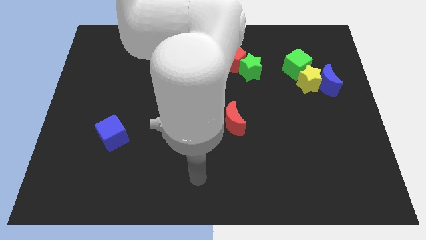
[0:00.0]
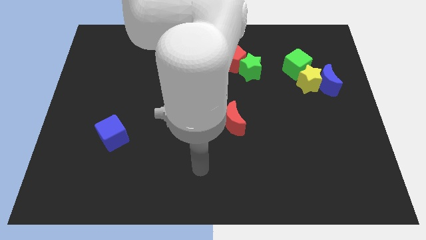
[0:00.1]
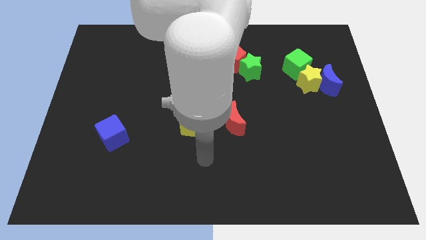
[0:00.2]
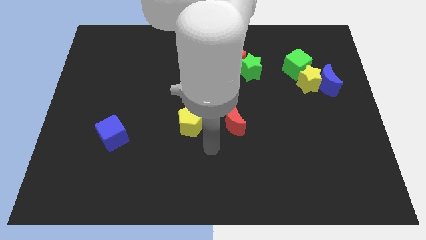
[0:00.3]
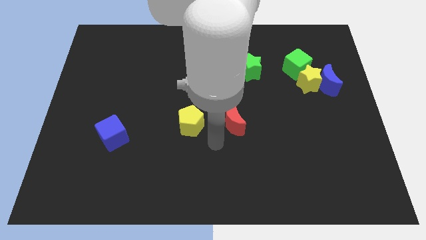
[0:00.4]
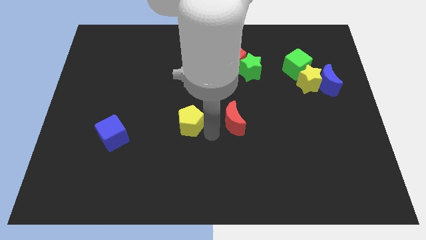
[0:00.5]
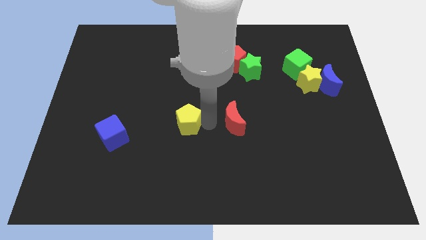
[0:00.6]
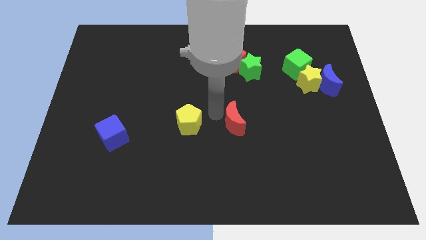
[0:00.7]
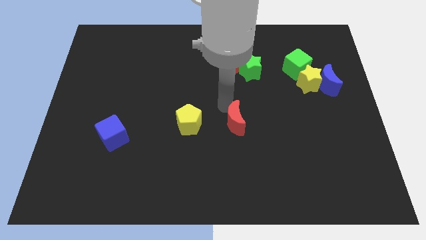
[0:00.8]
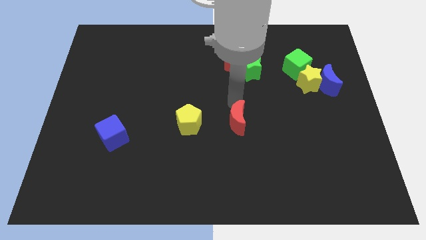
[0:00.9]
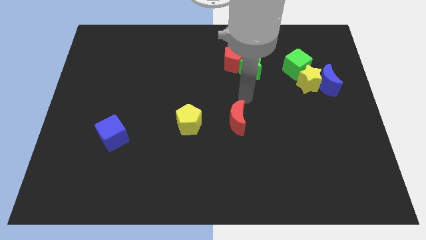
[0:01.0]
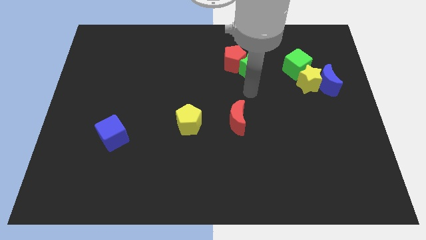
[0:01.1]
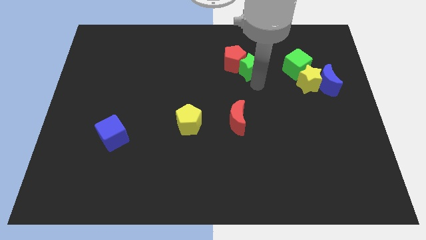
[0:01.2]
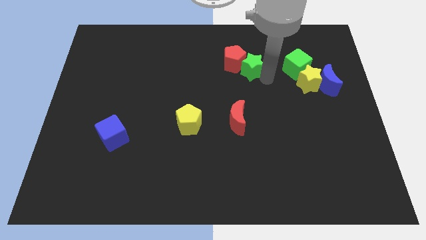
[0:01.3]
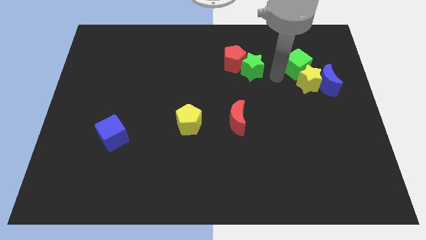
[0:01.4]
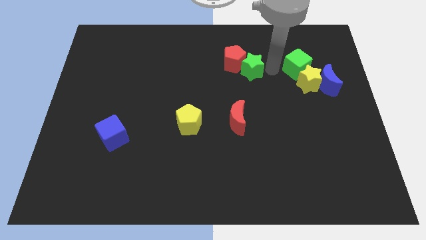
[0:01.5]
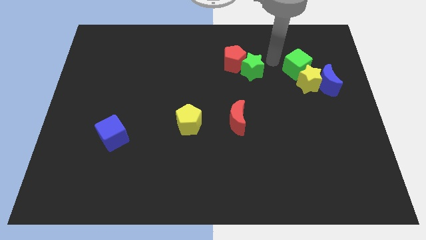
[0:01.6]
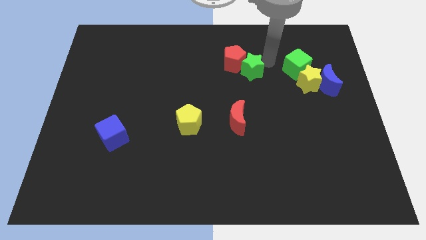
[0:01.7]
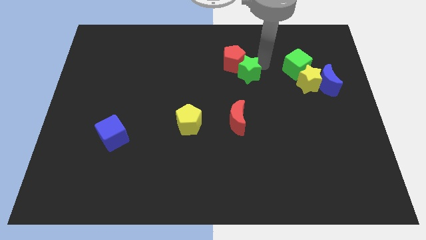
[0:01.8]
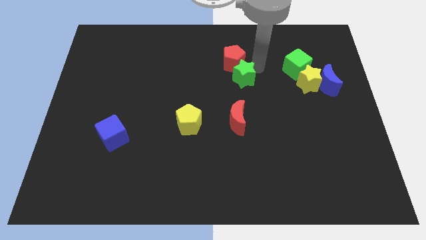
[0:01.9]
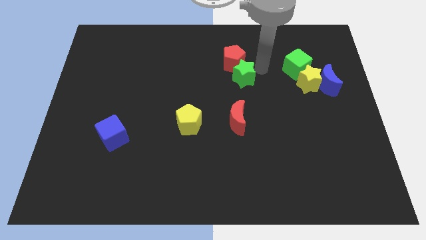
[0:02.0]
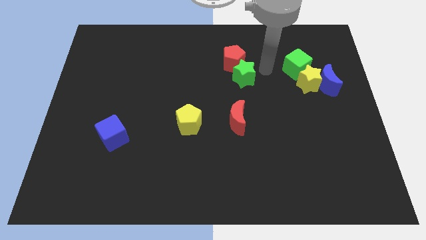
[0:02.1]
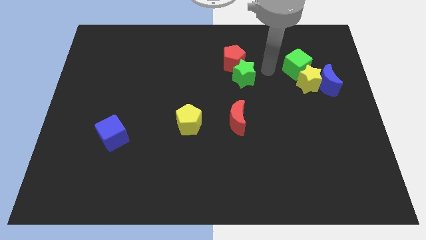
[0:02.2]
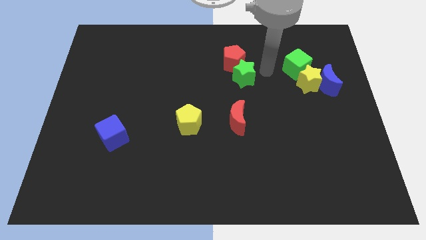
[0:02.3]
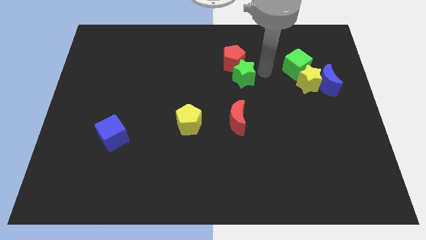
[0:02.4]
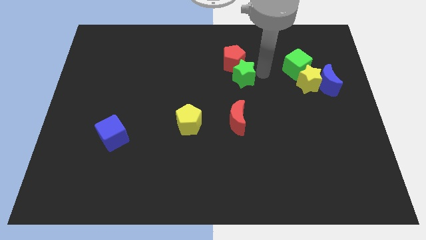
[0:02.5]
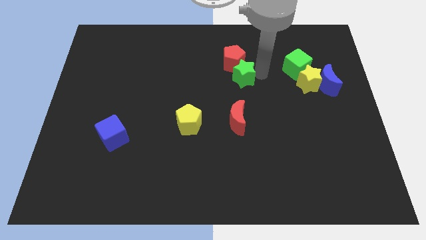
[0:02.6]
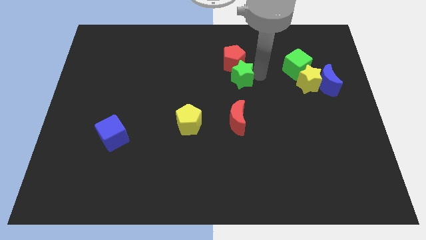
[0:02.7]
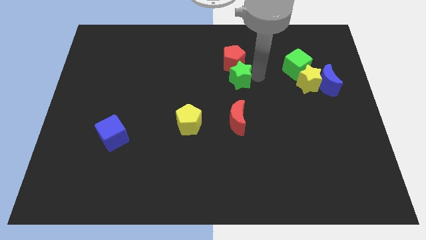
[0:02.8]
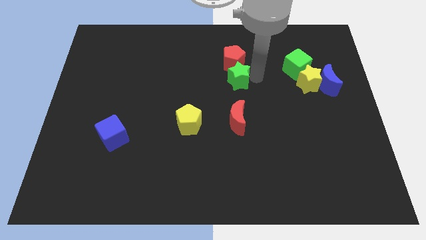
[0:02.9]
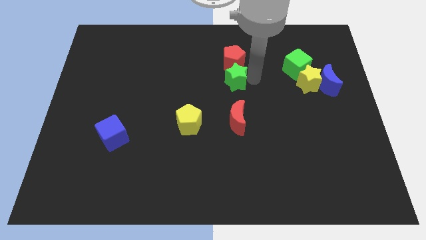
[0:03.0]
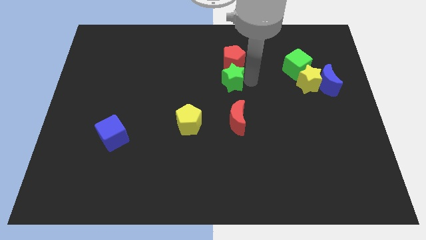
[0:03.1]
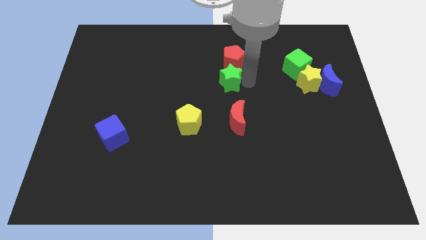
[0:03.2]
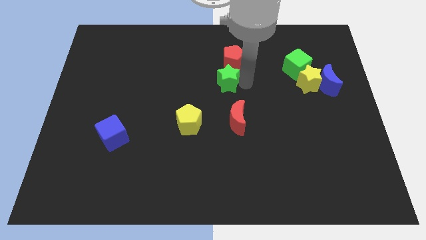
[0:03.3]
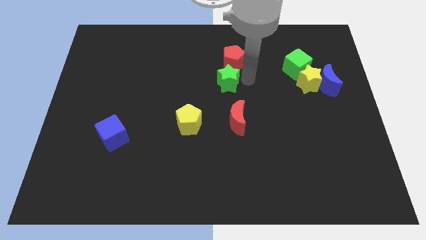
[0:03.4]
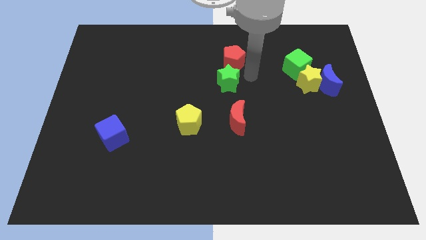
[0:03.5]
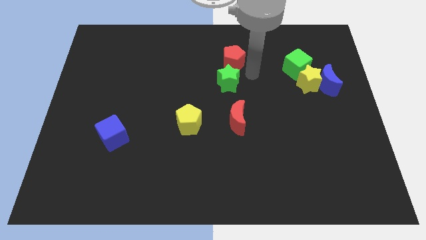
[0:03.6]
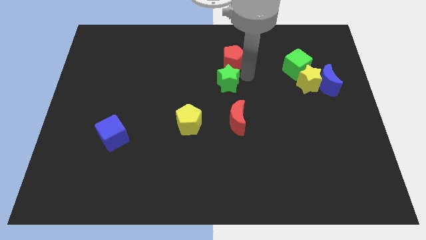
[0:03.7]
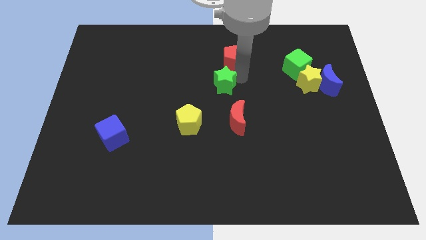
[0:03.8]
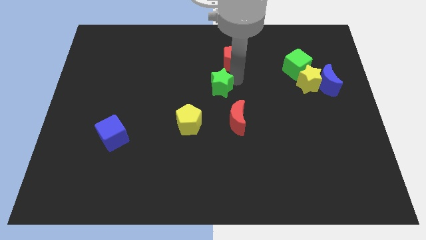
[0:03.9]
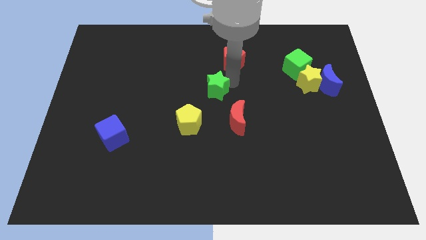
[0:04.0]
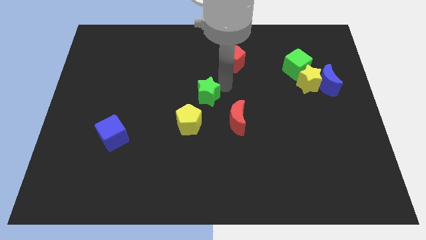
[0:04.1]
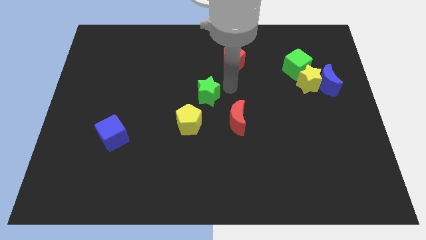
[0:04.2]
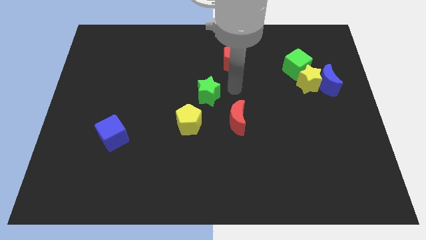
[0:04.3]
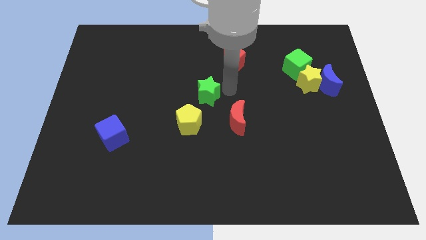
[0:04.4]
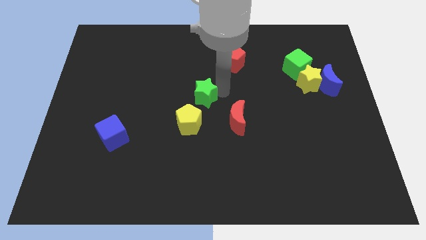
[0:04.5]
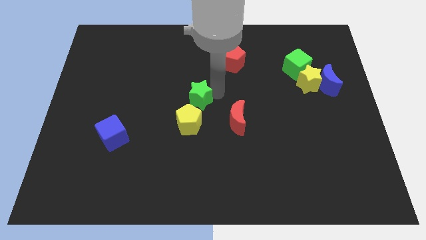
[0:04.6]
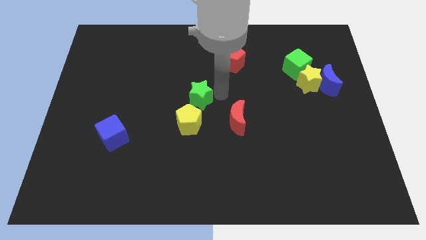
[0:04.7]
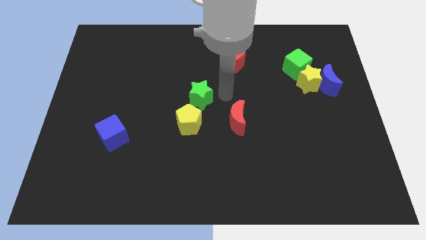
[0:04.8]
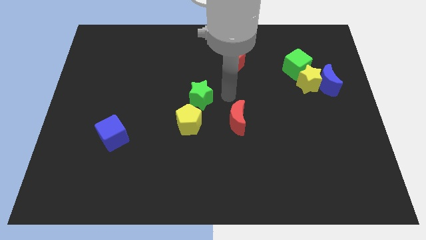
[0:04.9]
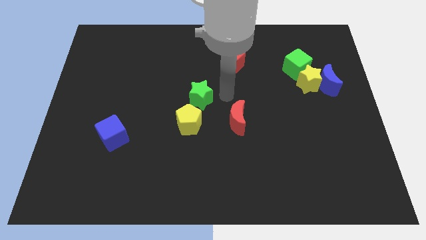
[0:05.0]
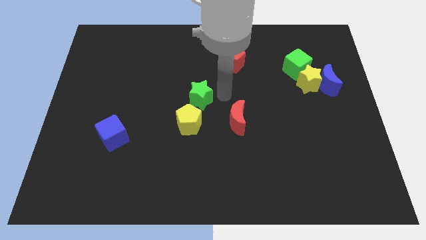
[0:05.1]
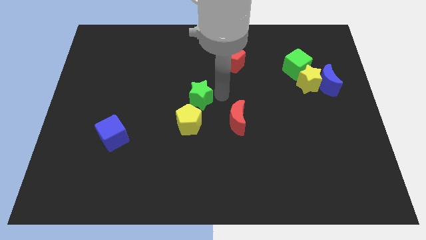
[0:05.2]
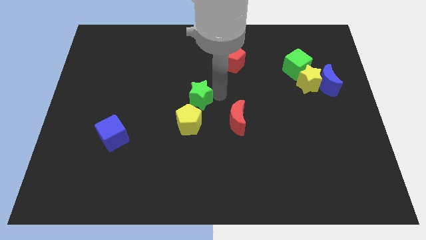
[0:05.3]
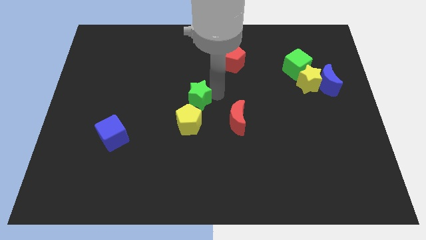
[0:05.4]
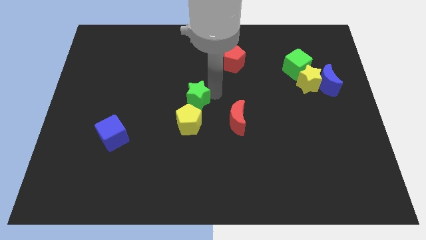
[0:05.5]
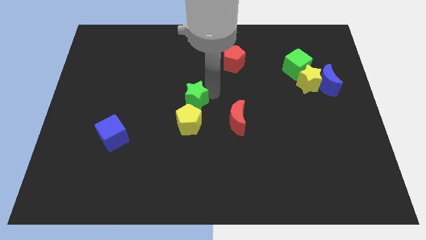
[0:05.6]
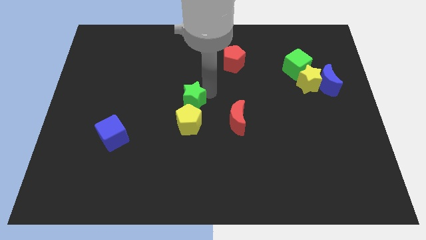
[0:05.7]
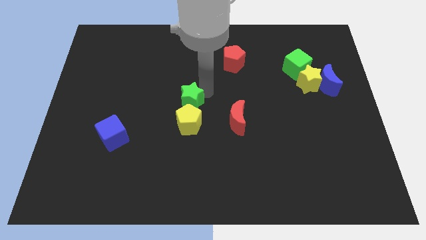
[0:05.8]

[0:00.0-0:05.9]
move the green star diagonally up and to the left of the yellow pentagon

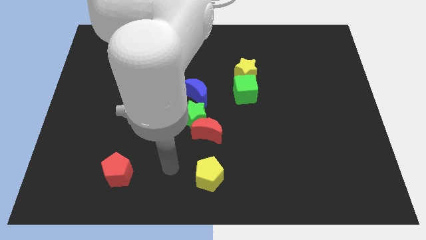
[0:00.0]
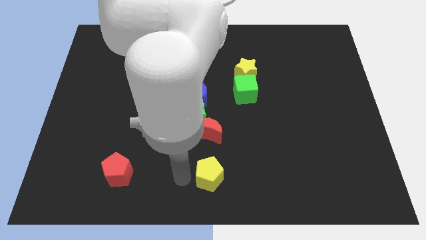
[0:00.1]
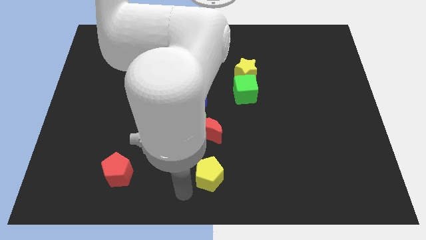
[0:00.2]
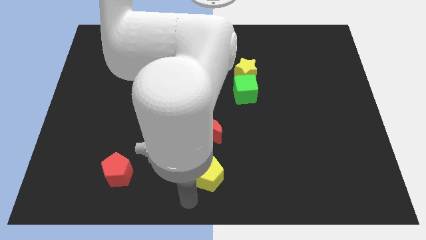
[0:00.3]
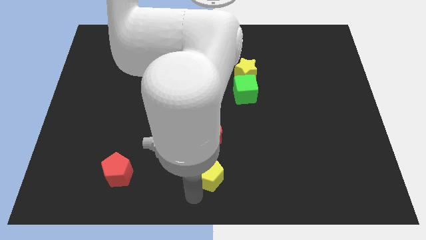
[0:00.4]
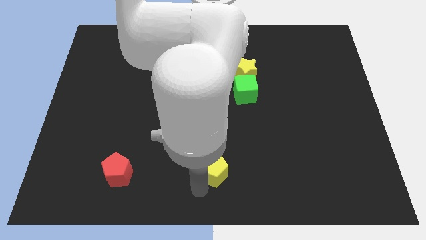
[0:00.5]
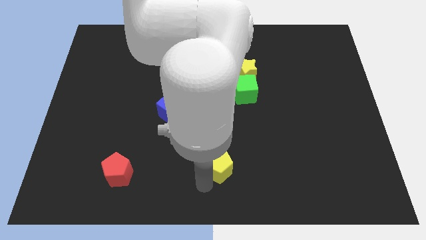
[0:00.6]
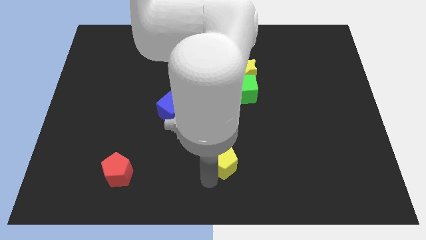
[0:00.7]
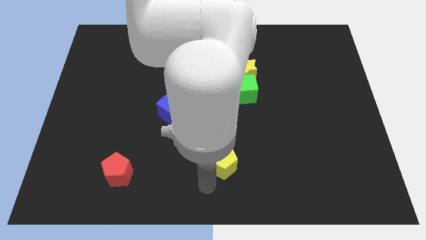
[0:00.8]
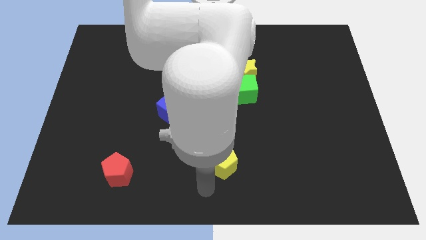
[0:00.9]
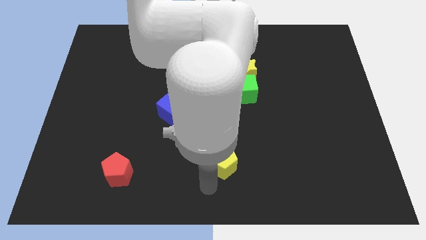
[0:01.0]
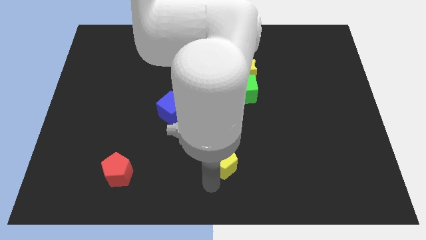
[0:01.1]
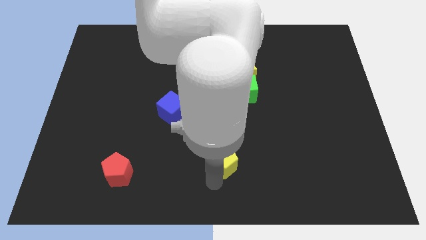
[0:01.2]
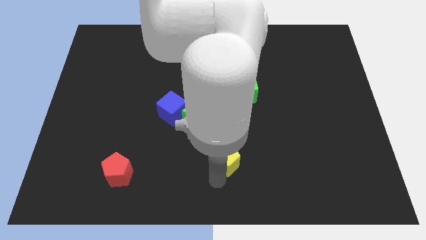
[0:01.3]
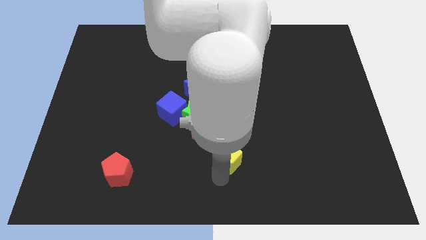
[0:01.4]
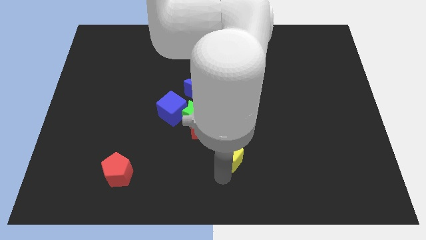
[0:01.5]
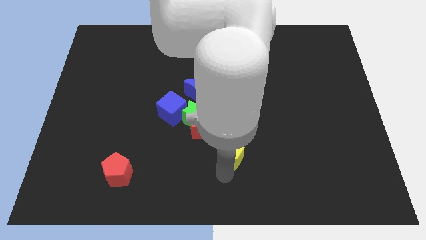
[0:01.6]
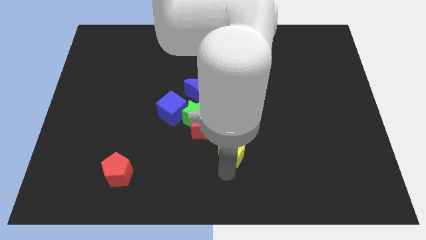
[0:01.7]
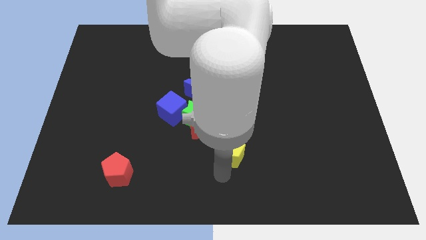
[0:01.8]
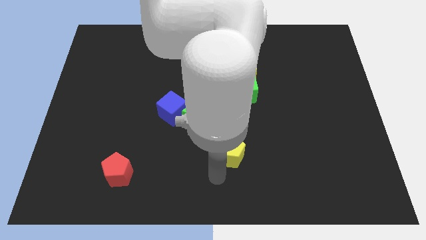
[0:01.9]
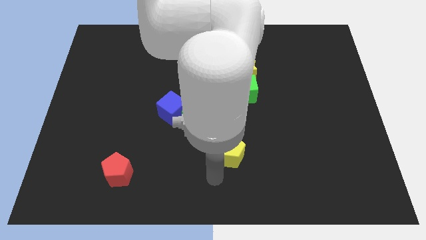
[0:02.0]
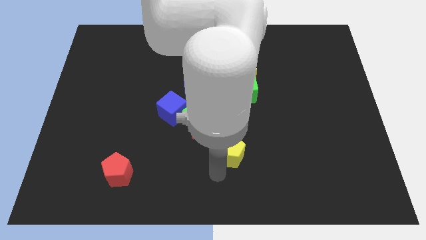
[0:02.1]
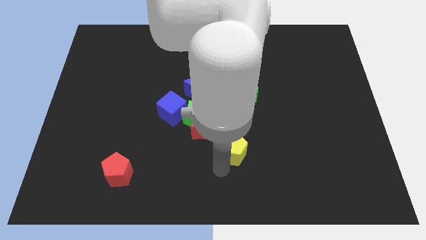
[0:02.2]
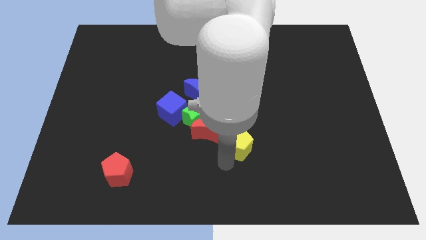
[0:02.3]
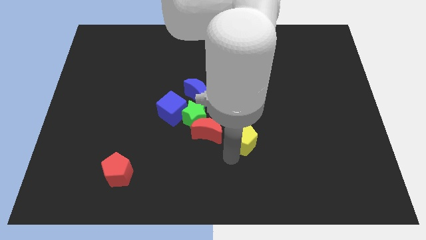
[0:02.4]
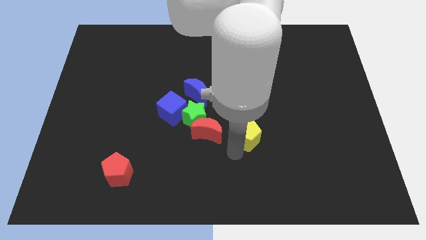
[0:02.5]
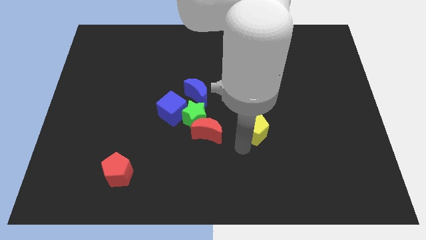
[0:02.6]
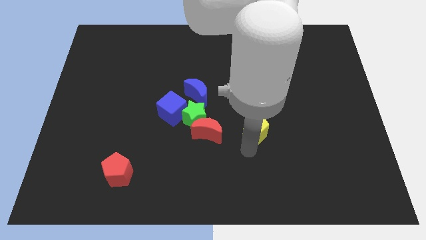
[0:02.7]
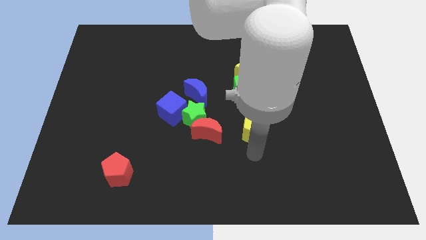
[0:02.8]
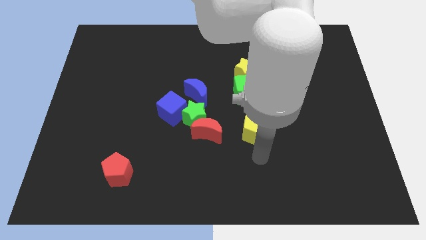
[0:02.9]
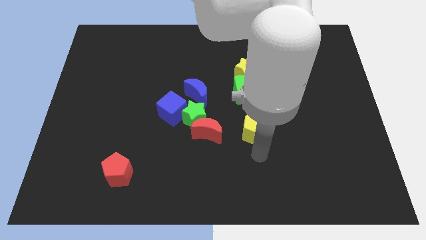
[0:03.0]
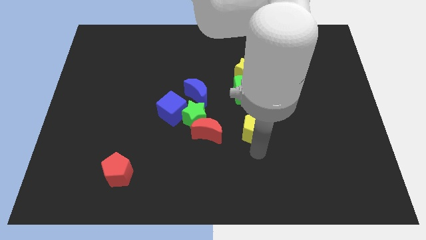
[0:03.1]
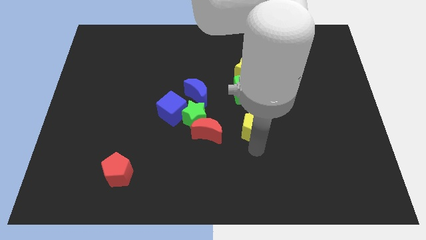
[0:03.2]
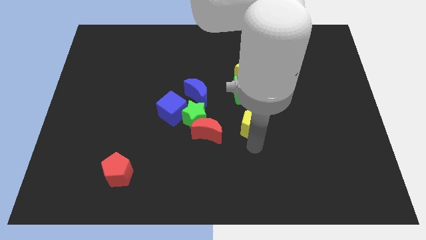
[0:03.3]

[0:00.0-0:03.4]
move the yellow pentagon to the bottom side of the yellow star
